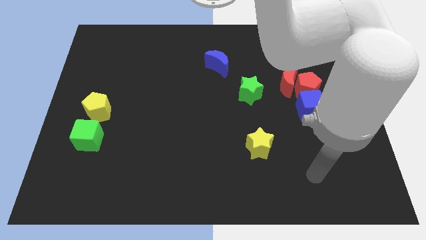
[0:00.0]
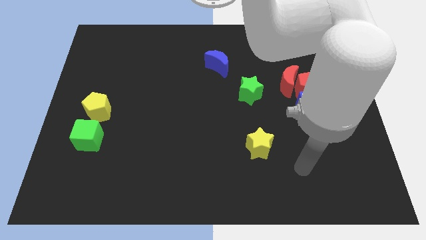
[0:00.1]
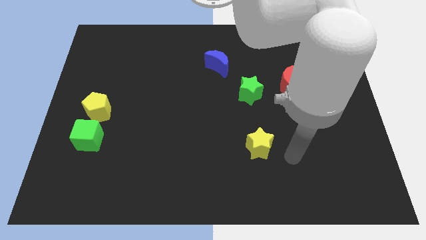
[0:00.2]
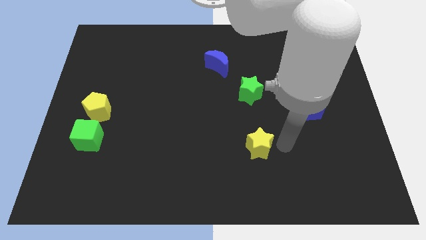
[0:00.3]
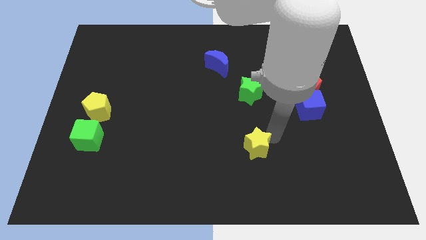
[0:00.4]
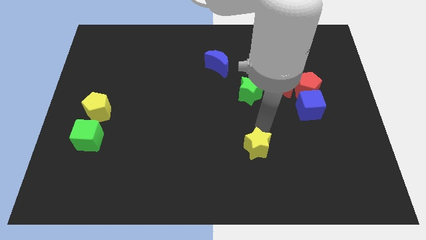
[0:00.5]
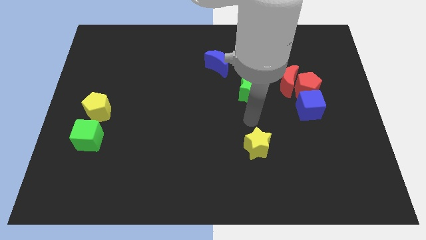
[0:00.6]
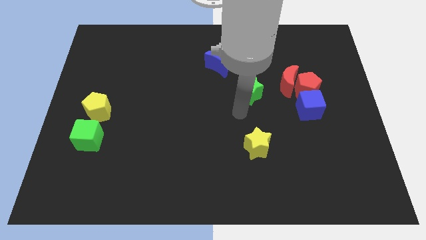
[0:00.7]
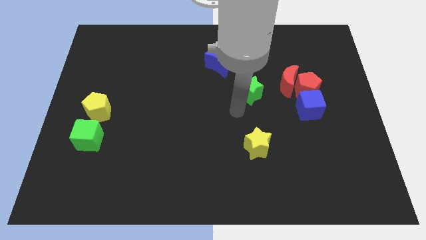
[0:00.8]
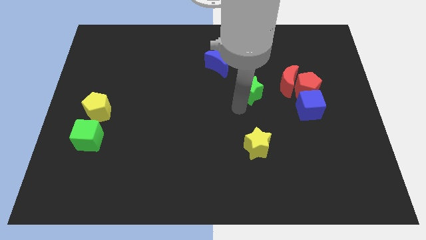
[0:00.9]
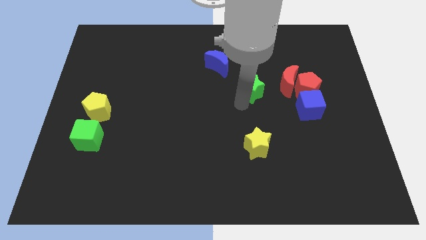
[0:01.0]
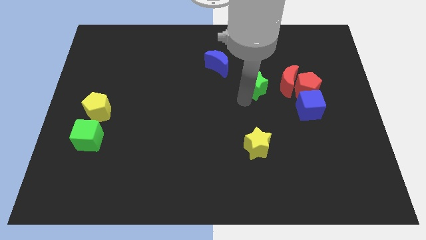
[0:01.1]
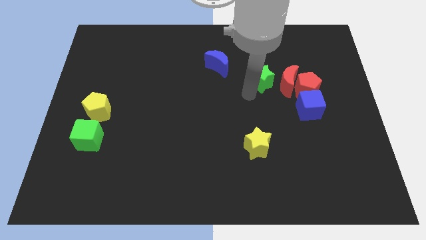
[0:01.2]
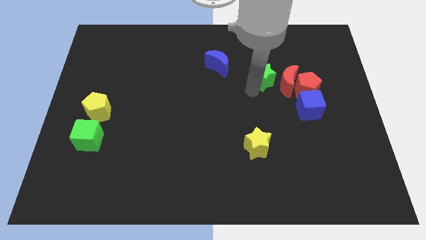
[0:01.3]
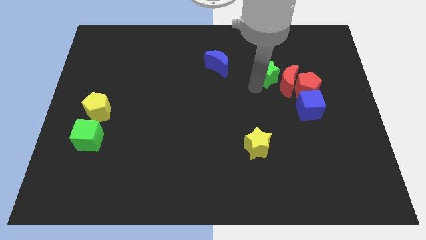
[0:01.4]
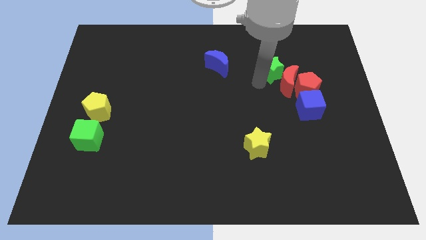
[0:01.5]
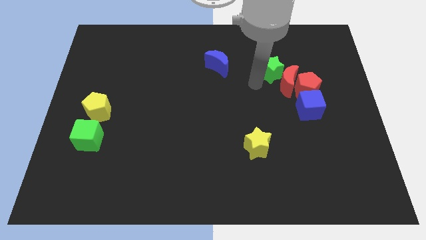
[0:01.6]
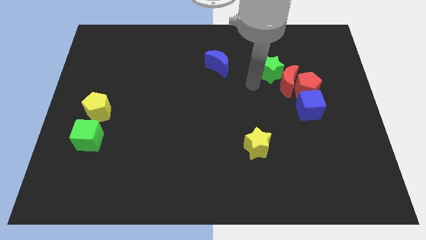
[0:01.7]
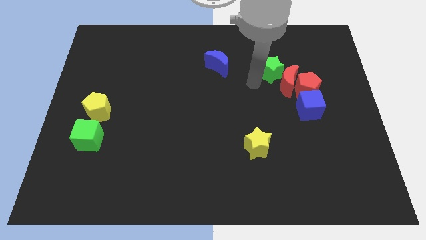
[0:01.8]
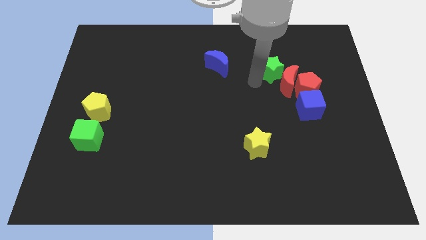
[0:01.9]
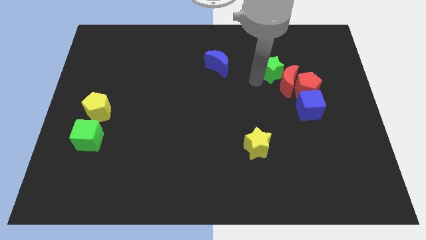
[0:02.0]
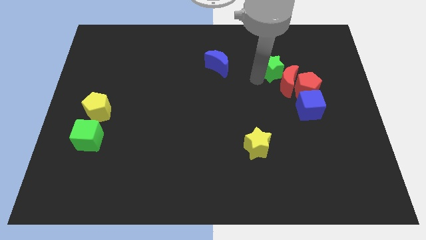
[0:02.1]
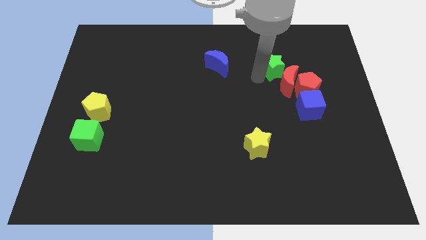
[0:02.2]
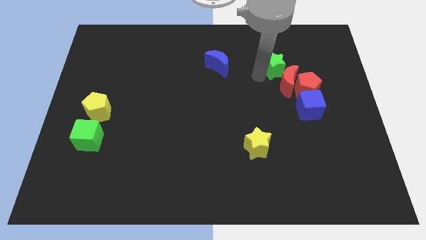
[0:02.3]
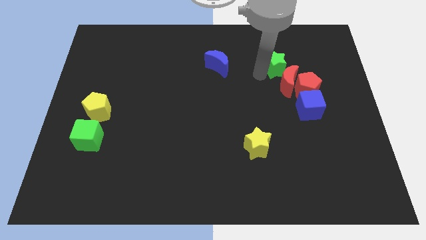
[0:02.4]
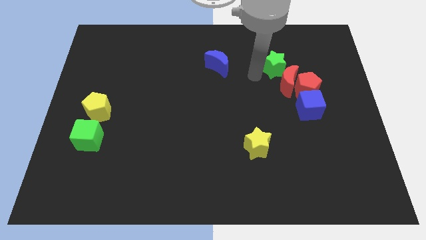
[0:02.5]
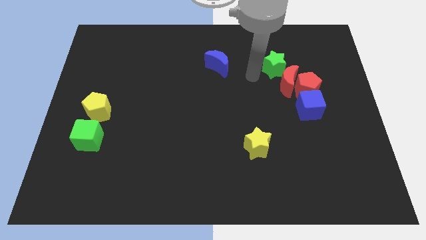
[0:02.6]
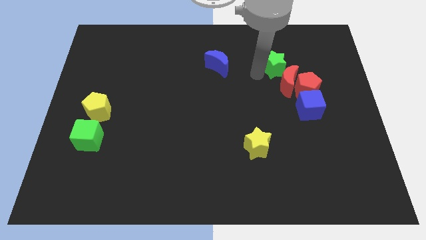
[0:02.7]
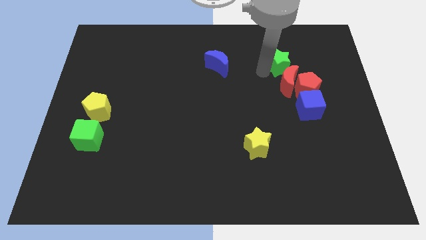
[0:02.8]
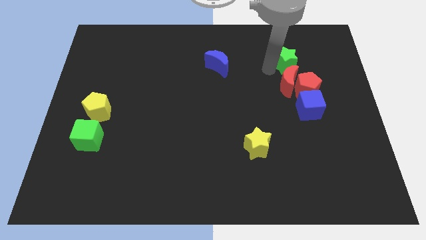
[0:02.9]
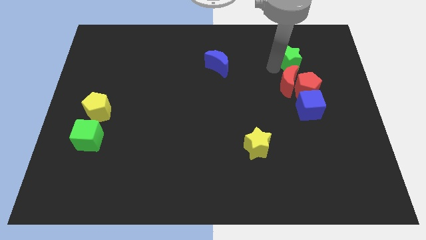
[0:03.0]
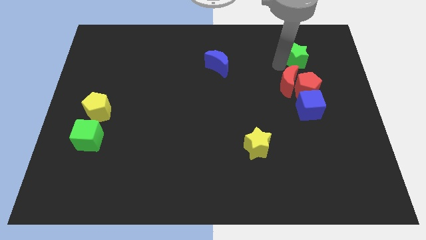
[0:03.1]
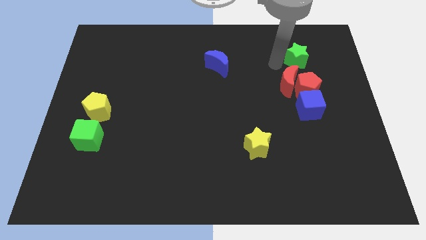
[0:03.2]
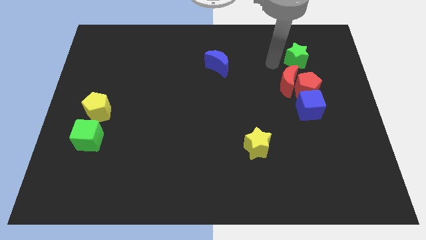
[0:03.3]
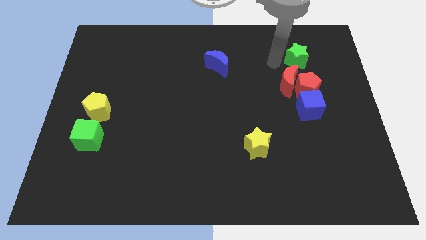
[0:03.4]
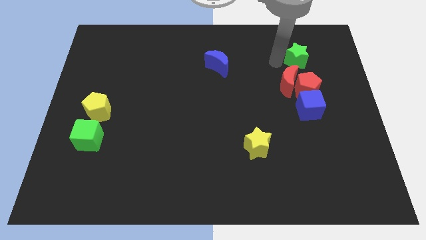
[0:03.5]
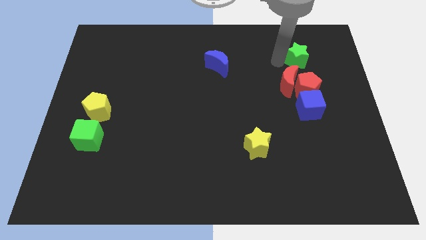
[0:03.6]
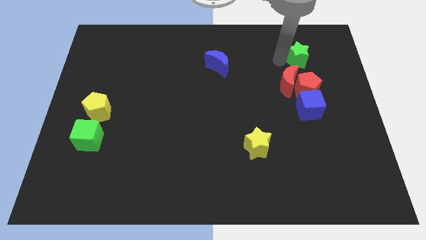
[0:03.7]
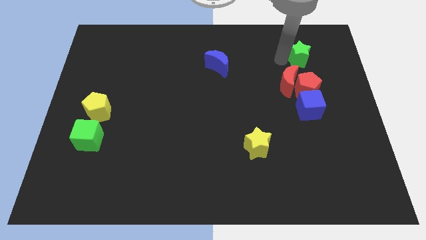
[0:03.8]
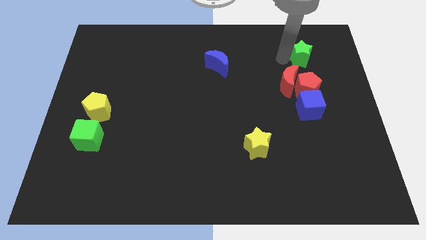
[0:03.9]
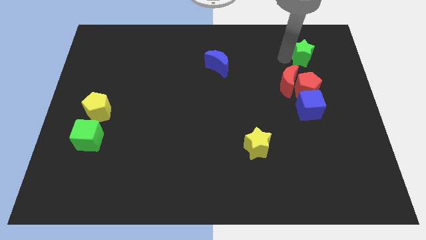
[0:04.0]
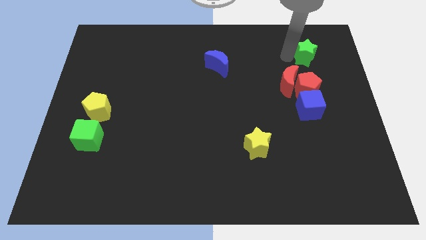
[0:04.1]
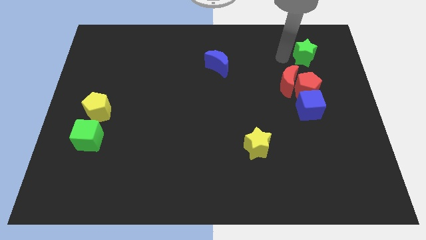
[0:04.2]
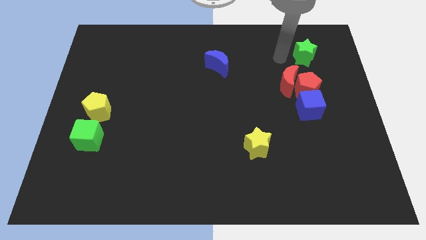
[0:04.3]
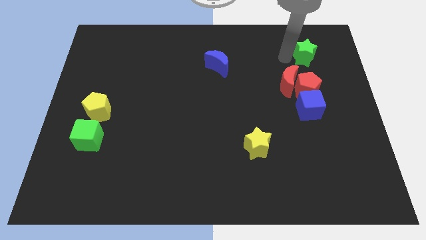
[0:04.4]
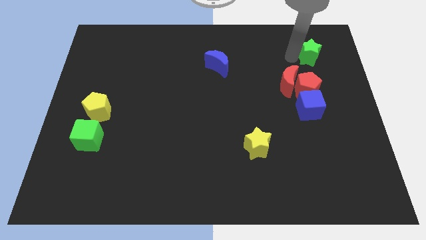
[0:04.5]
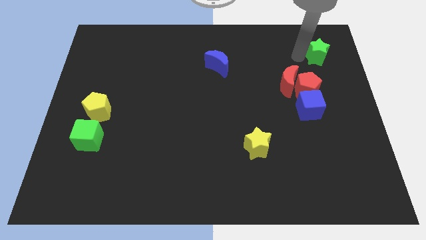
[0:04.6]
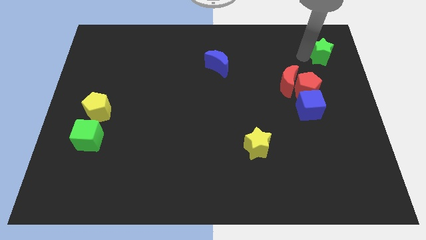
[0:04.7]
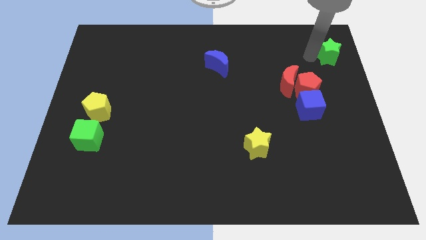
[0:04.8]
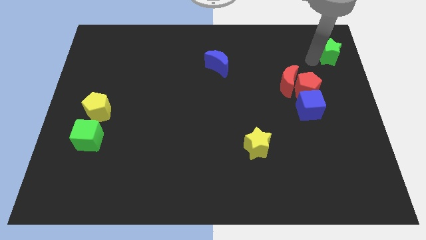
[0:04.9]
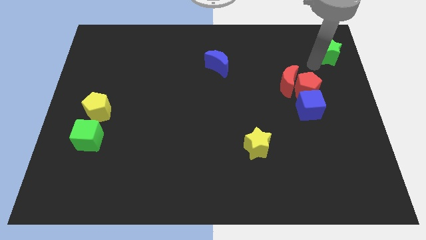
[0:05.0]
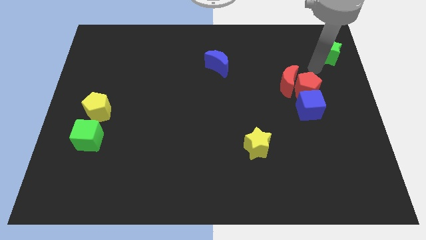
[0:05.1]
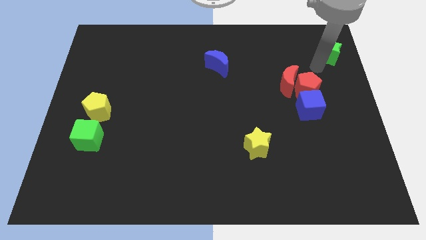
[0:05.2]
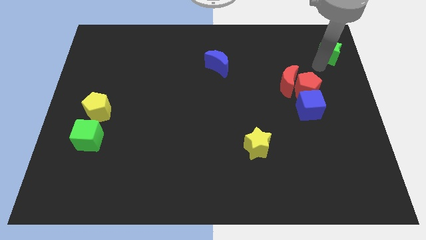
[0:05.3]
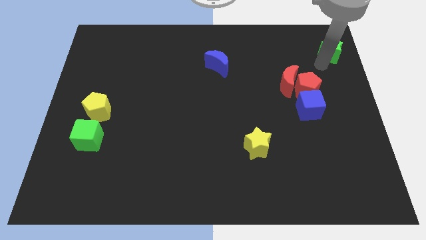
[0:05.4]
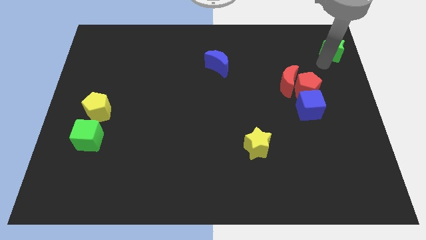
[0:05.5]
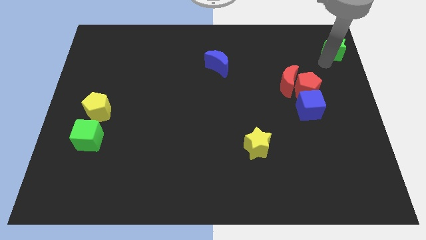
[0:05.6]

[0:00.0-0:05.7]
push the green star to the top right of the board

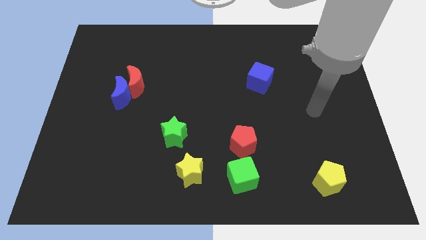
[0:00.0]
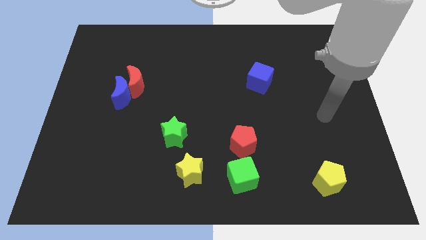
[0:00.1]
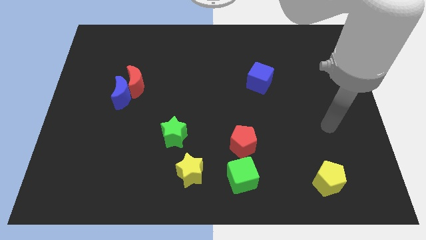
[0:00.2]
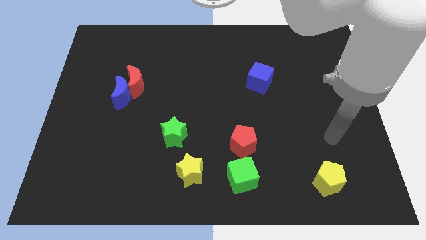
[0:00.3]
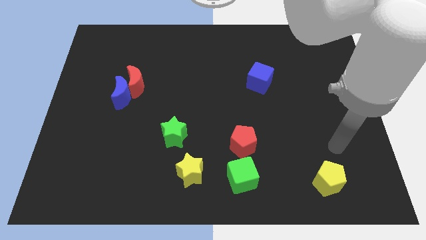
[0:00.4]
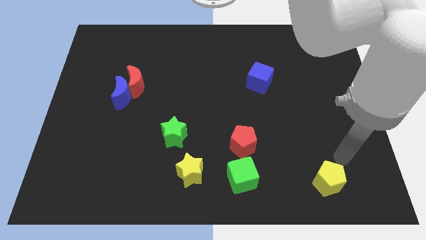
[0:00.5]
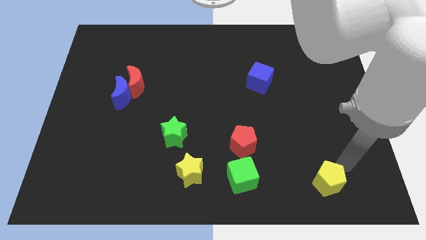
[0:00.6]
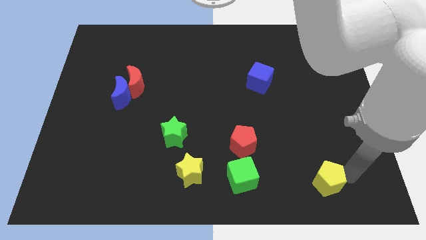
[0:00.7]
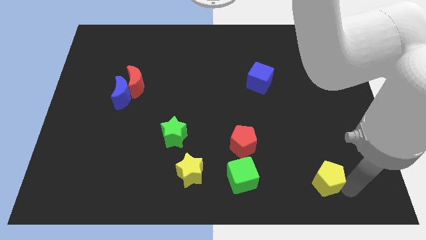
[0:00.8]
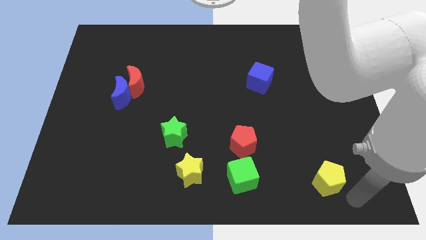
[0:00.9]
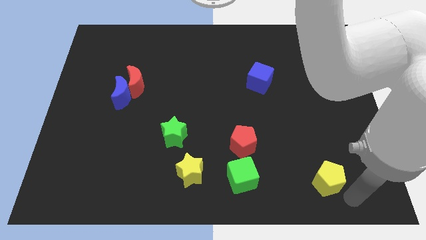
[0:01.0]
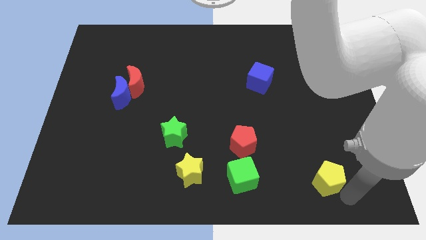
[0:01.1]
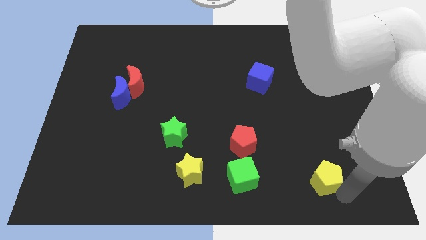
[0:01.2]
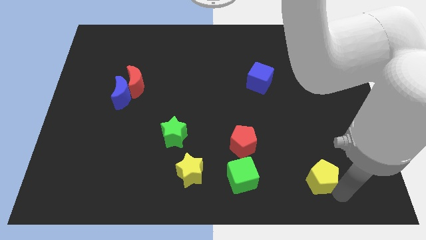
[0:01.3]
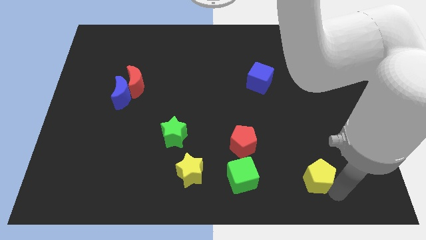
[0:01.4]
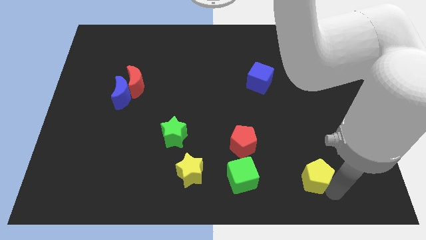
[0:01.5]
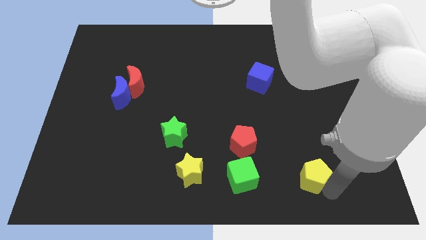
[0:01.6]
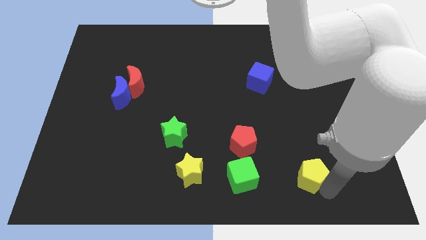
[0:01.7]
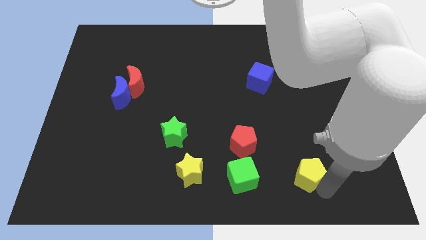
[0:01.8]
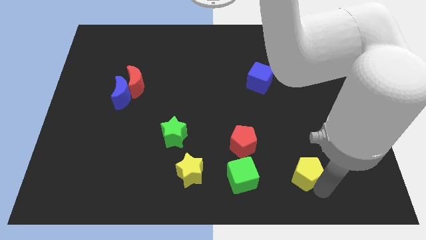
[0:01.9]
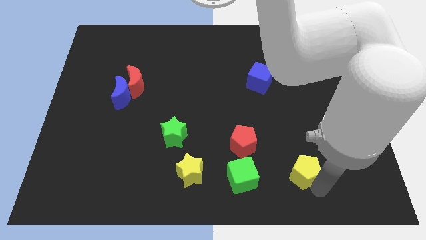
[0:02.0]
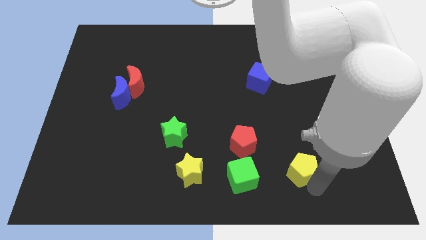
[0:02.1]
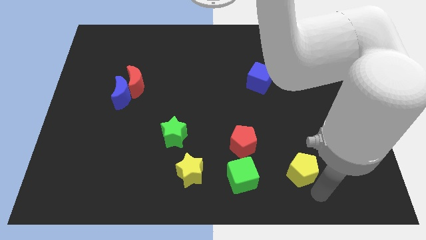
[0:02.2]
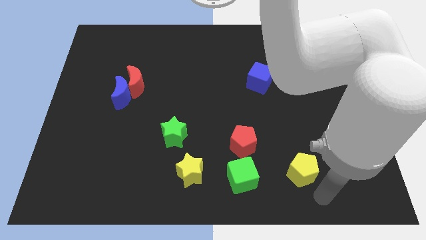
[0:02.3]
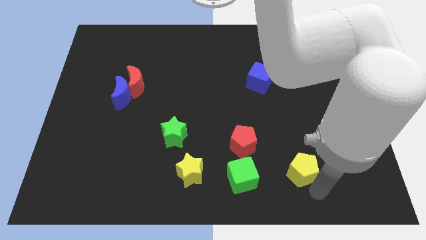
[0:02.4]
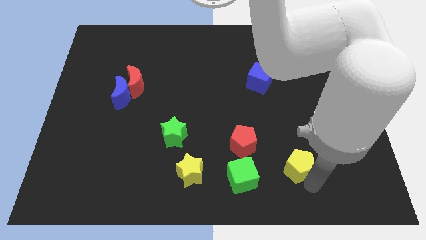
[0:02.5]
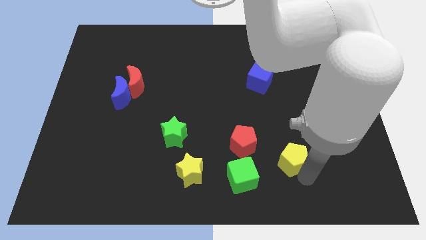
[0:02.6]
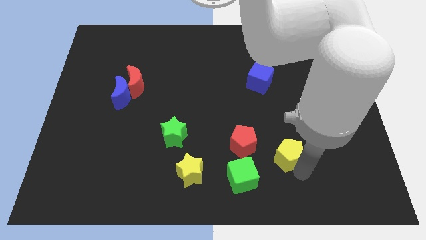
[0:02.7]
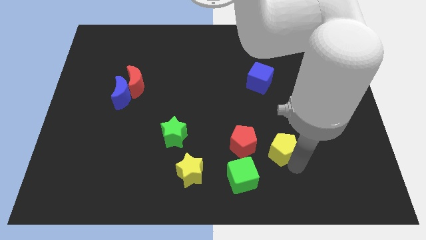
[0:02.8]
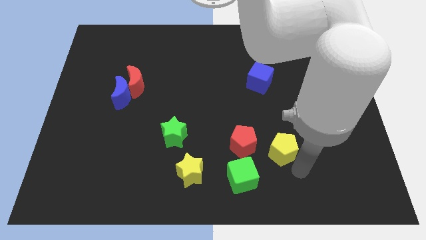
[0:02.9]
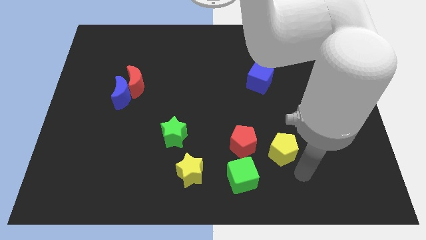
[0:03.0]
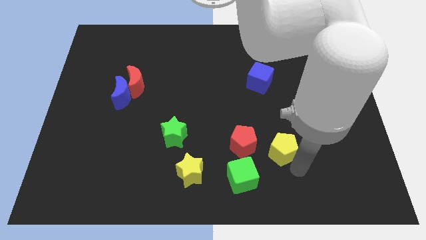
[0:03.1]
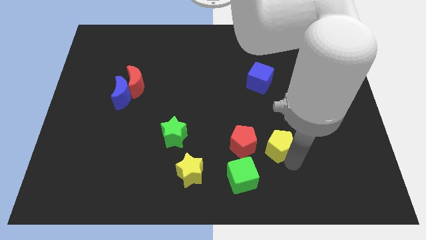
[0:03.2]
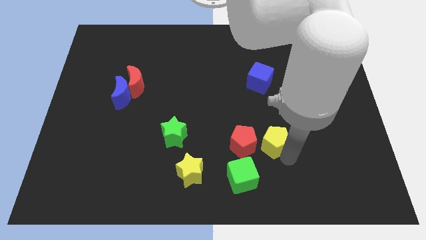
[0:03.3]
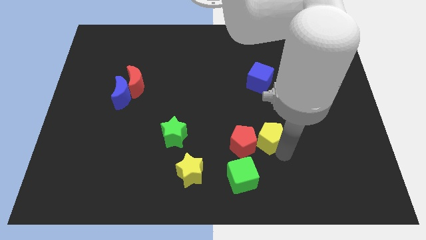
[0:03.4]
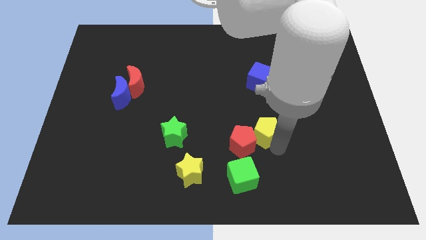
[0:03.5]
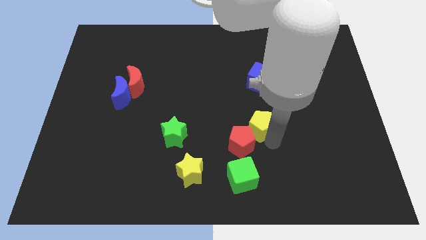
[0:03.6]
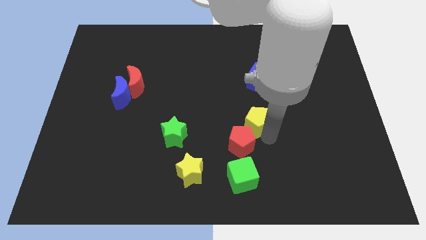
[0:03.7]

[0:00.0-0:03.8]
put the yellow pentagon to the middle
